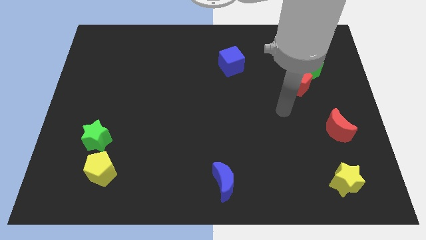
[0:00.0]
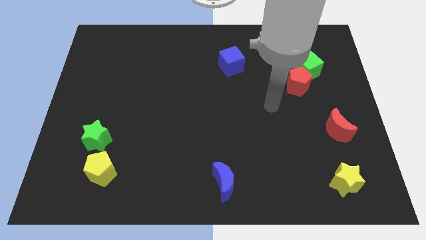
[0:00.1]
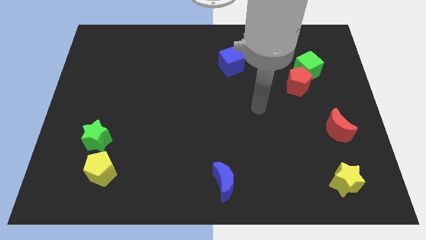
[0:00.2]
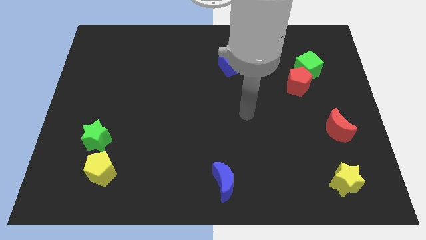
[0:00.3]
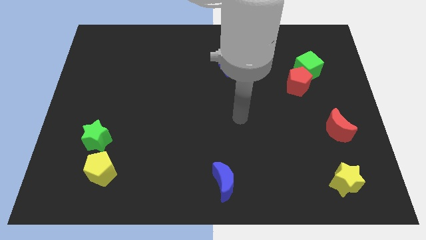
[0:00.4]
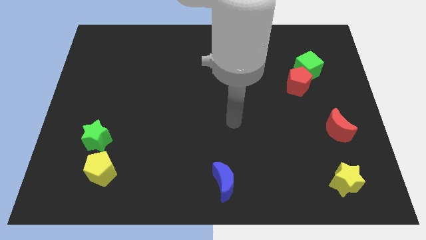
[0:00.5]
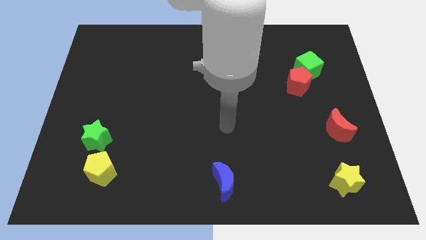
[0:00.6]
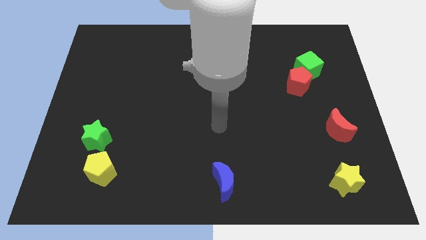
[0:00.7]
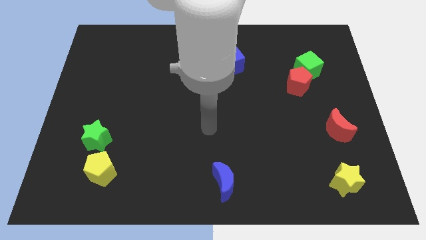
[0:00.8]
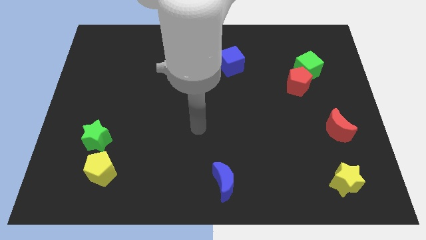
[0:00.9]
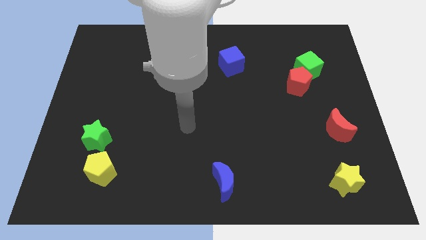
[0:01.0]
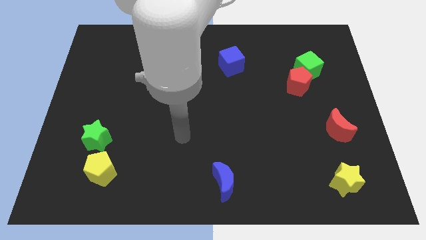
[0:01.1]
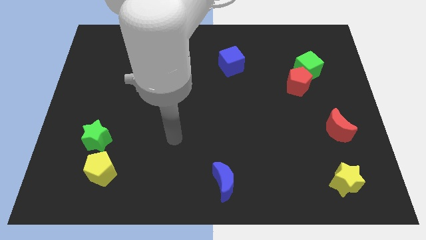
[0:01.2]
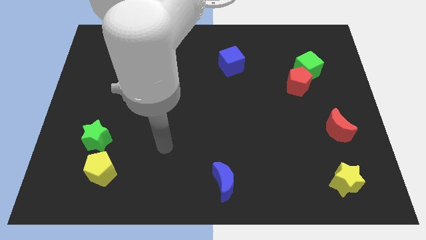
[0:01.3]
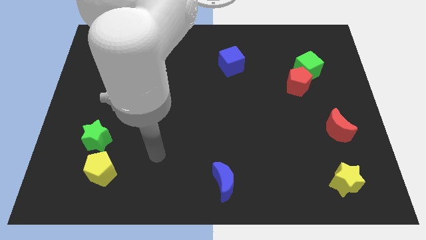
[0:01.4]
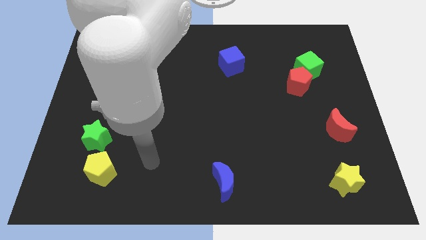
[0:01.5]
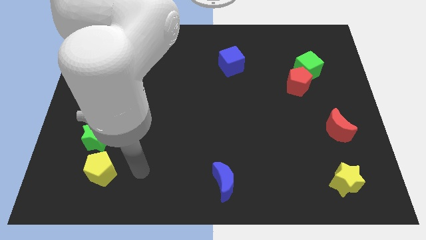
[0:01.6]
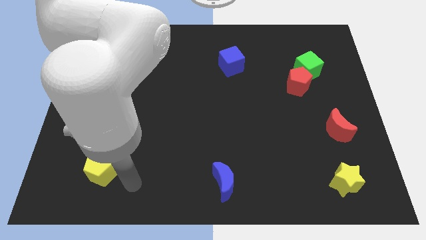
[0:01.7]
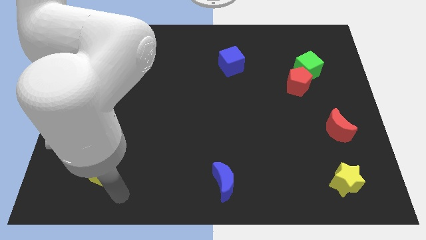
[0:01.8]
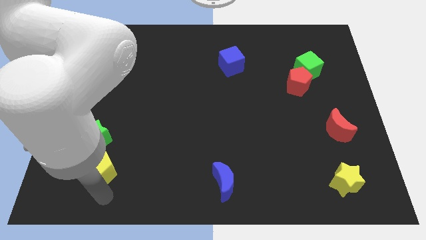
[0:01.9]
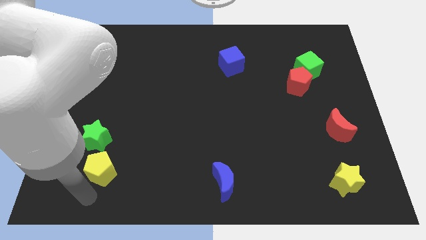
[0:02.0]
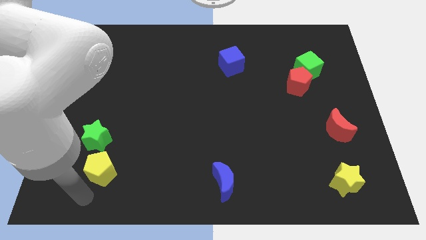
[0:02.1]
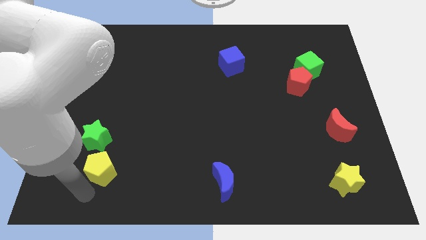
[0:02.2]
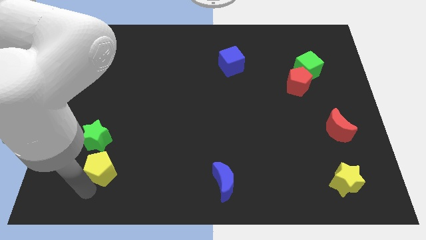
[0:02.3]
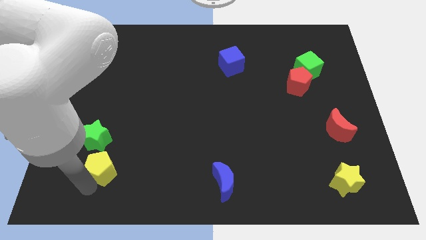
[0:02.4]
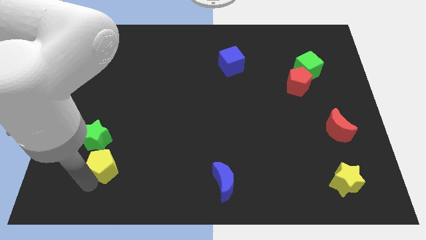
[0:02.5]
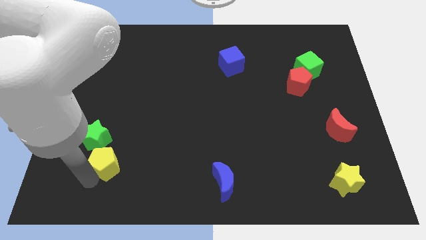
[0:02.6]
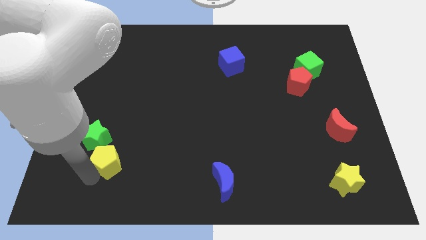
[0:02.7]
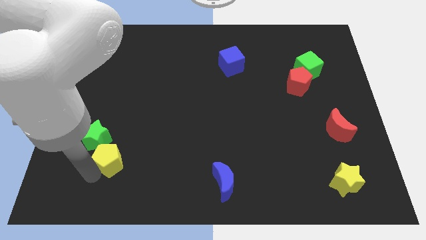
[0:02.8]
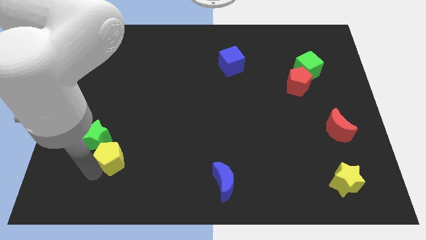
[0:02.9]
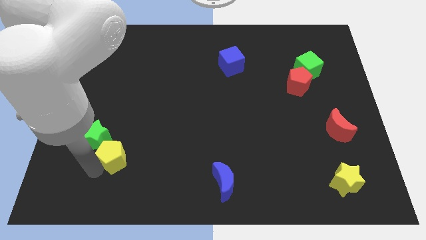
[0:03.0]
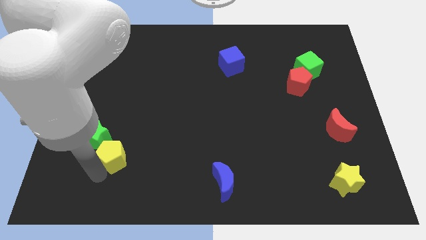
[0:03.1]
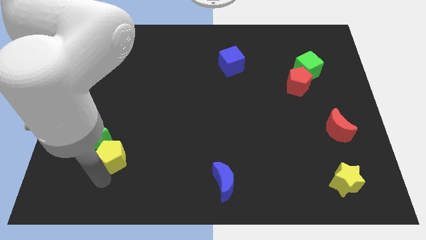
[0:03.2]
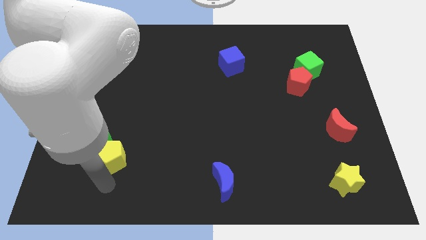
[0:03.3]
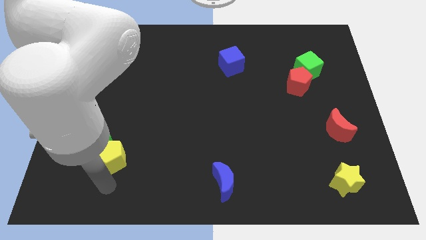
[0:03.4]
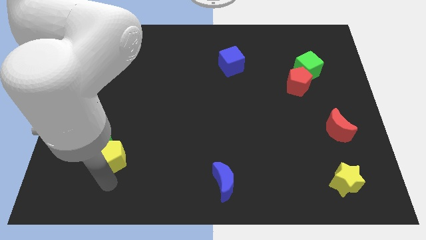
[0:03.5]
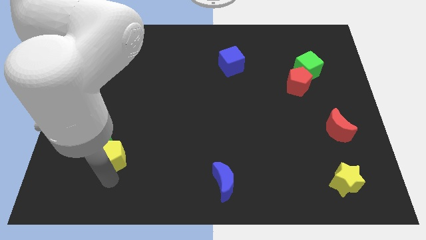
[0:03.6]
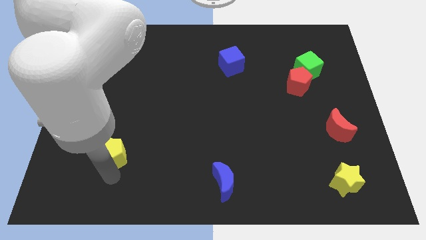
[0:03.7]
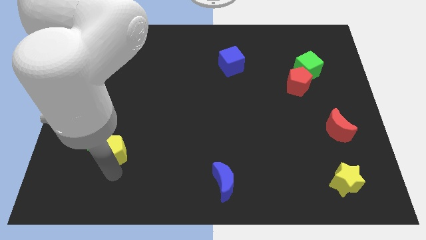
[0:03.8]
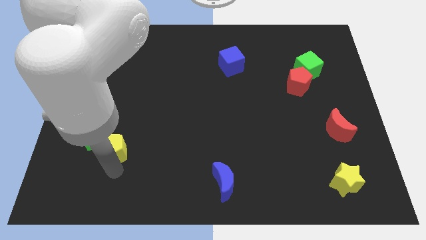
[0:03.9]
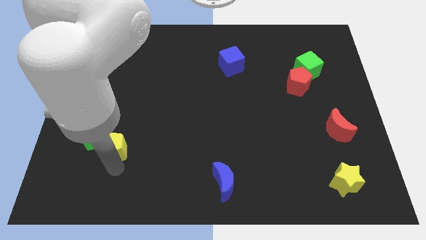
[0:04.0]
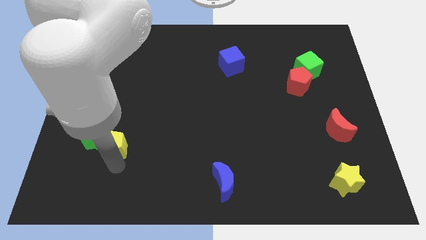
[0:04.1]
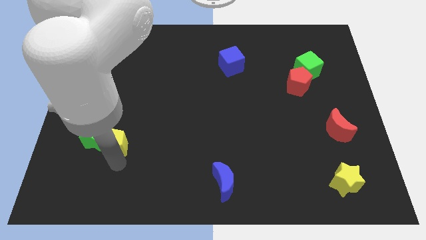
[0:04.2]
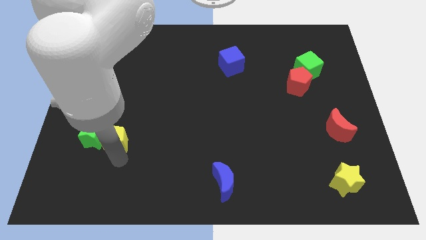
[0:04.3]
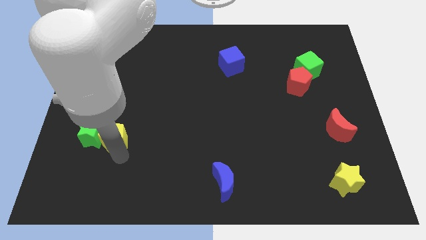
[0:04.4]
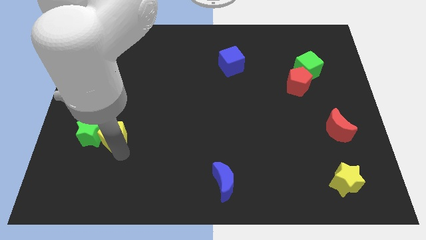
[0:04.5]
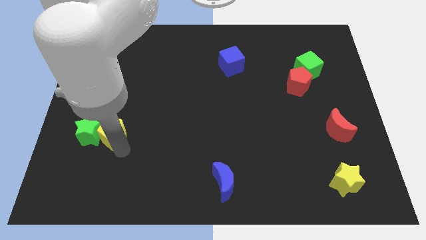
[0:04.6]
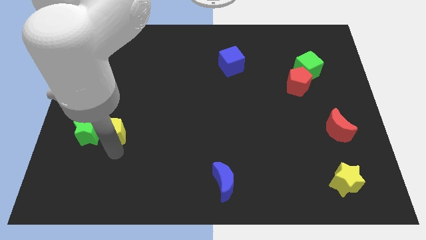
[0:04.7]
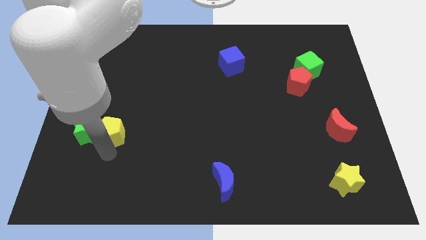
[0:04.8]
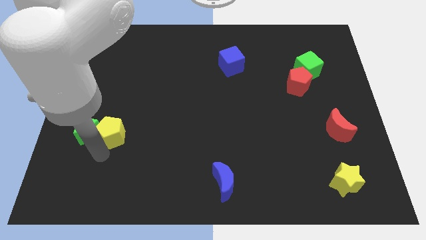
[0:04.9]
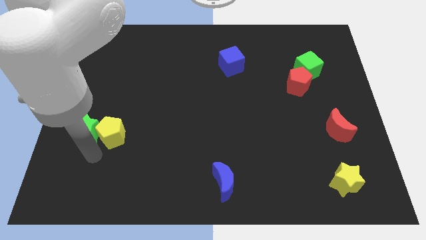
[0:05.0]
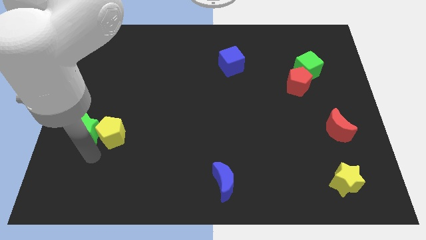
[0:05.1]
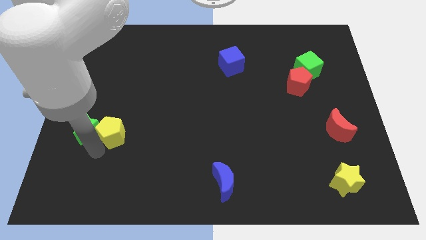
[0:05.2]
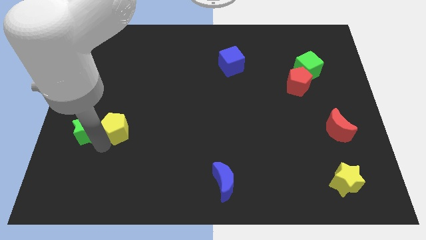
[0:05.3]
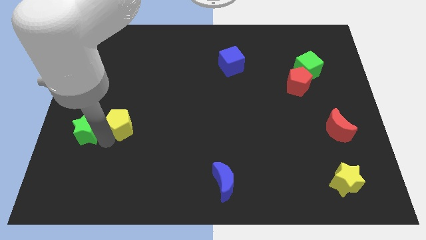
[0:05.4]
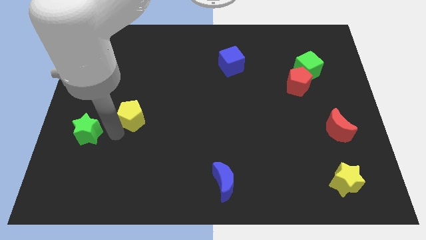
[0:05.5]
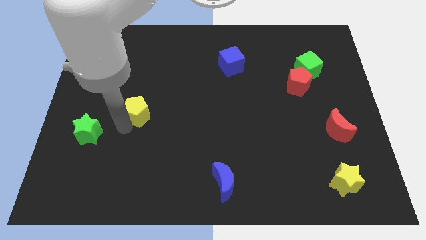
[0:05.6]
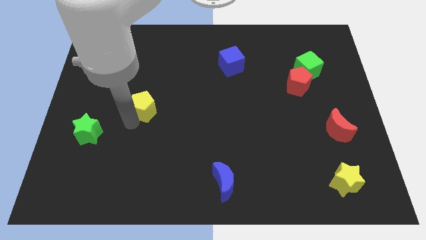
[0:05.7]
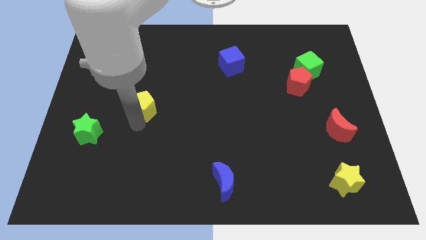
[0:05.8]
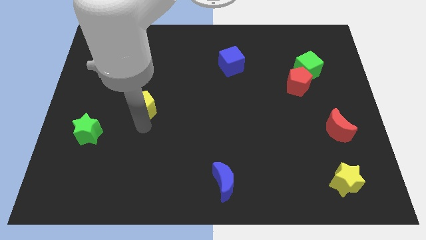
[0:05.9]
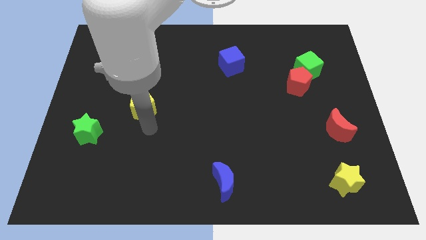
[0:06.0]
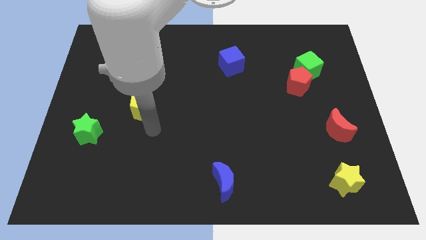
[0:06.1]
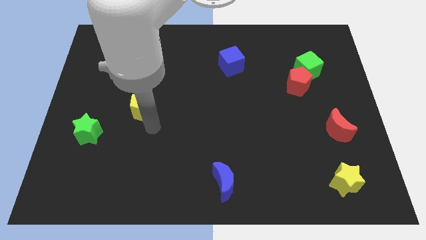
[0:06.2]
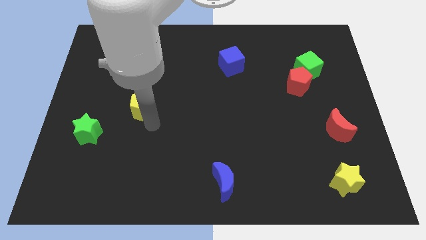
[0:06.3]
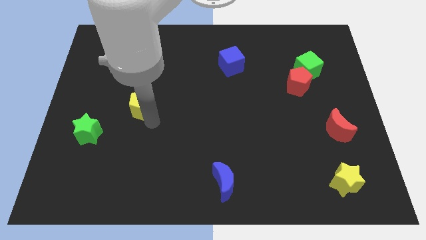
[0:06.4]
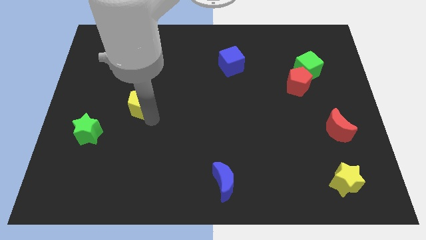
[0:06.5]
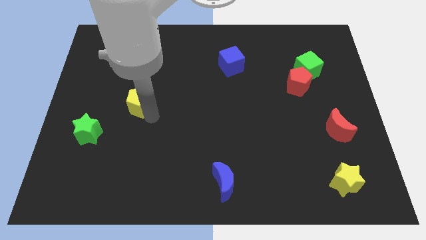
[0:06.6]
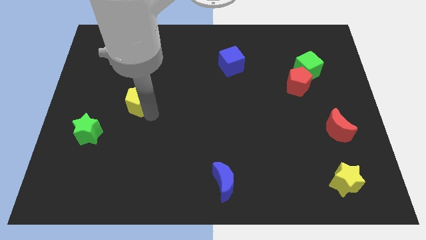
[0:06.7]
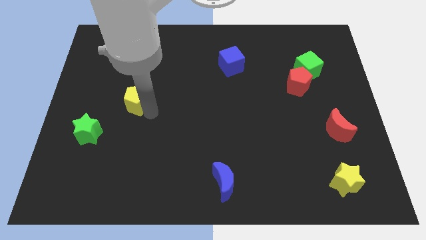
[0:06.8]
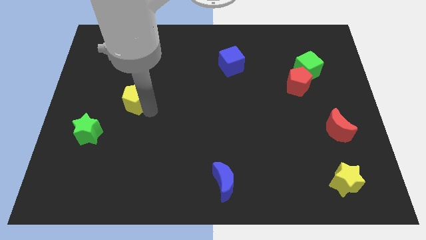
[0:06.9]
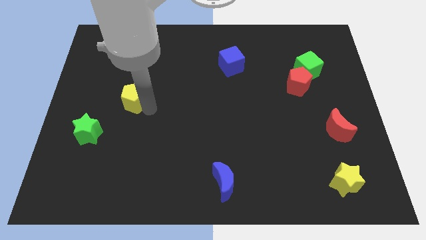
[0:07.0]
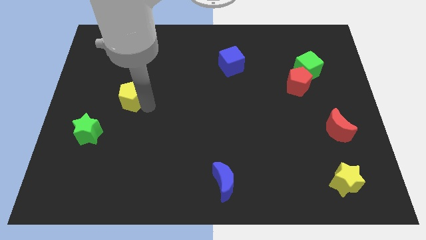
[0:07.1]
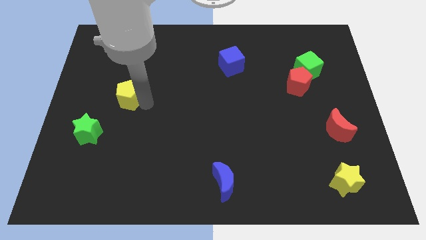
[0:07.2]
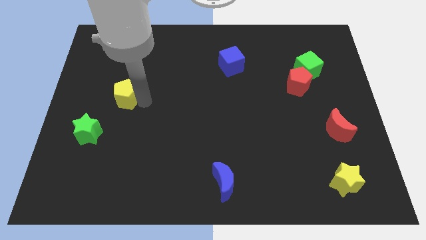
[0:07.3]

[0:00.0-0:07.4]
move the yellow pentagon up

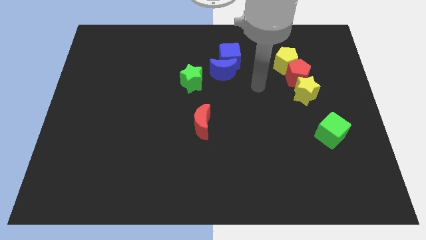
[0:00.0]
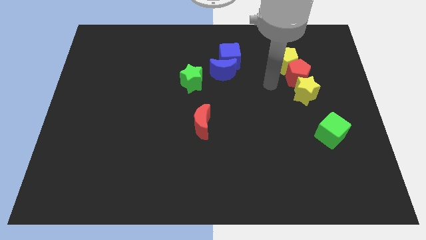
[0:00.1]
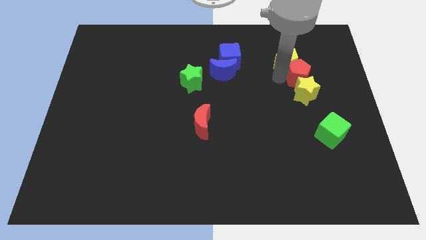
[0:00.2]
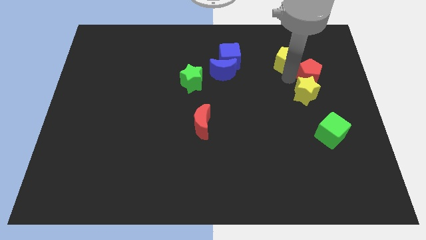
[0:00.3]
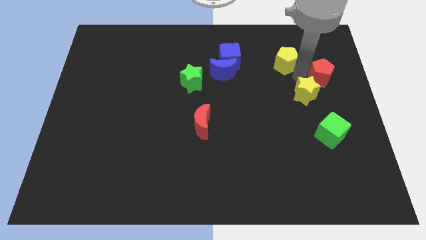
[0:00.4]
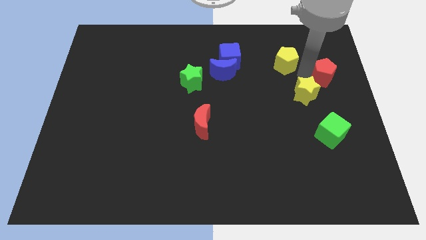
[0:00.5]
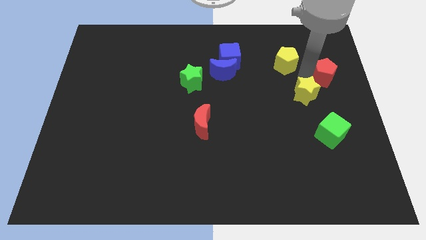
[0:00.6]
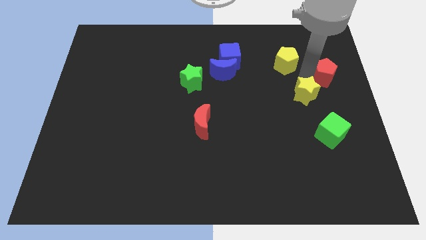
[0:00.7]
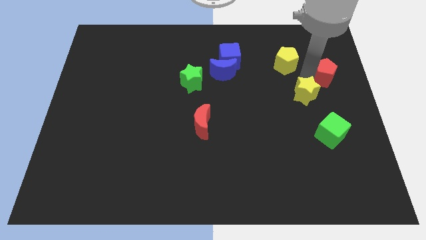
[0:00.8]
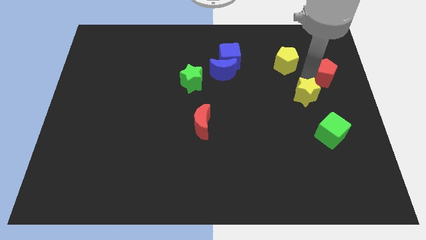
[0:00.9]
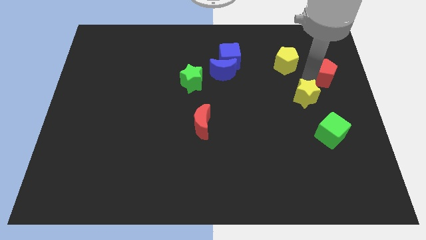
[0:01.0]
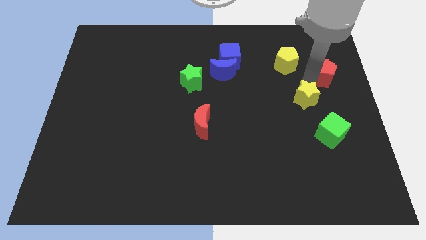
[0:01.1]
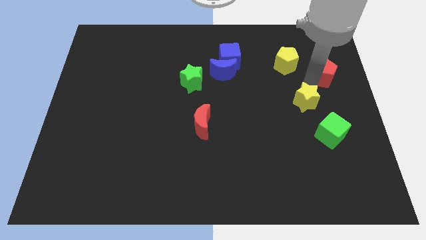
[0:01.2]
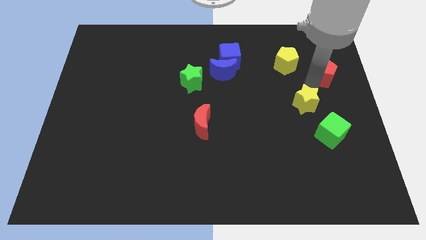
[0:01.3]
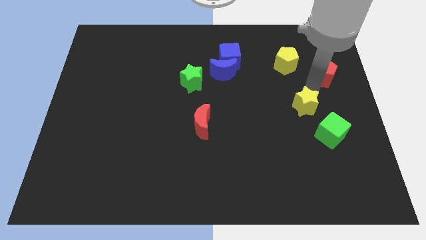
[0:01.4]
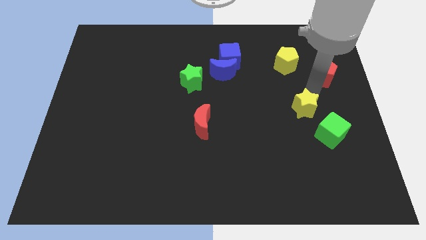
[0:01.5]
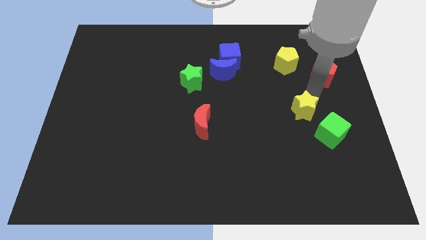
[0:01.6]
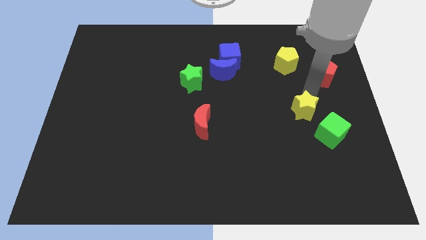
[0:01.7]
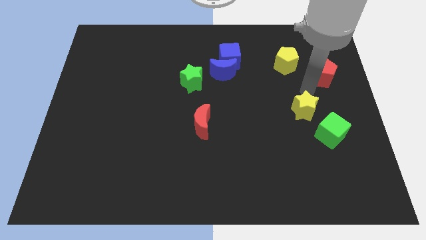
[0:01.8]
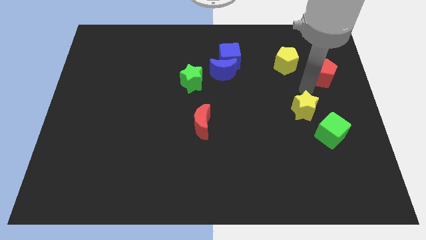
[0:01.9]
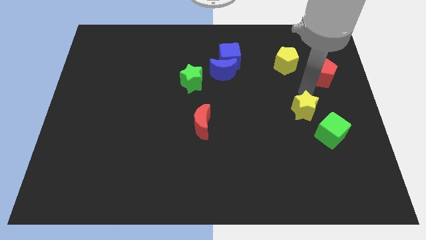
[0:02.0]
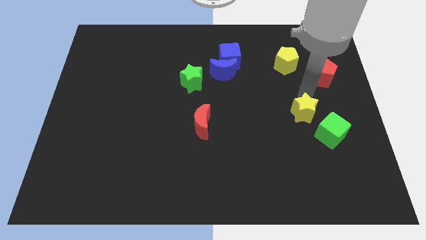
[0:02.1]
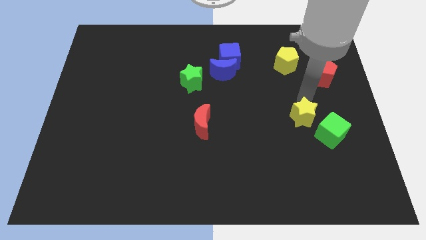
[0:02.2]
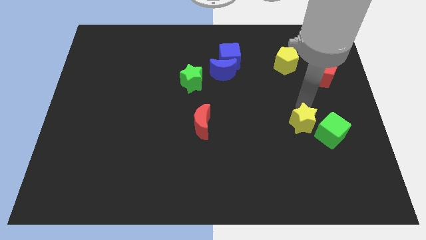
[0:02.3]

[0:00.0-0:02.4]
slightly push the yellow star down
